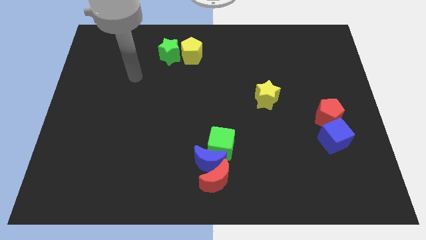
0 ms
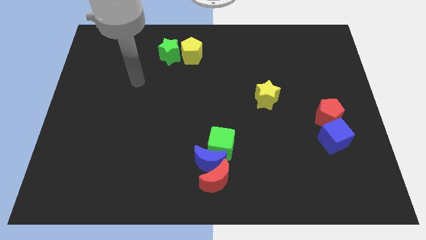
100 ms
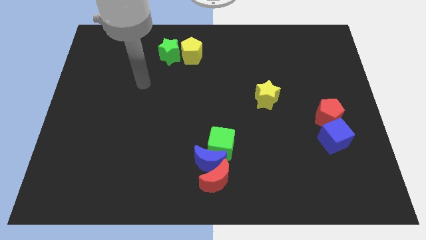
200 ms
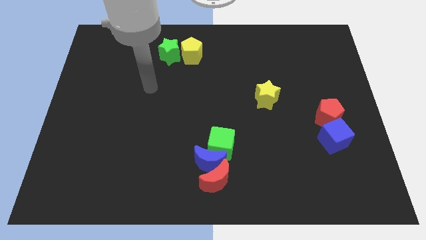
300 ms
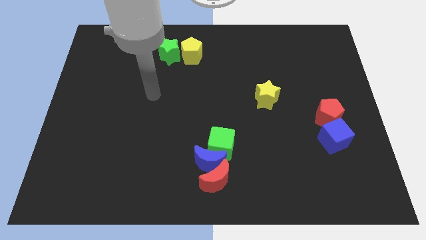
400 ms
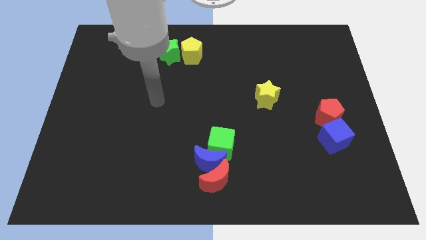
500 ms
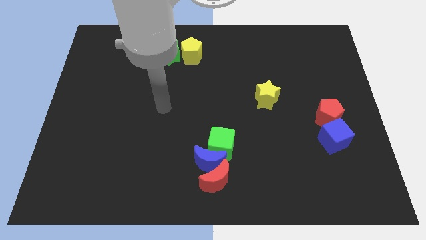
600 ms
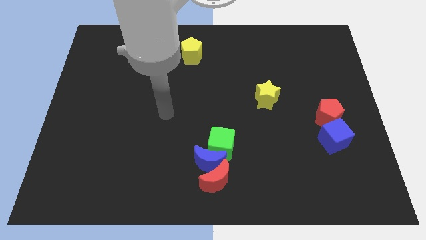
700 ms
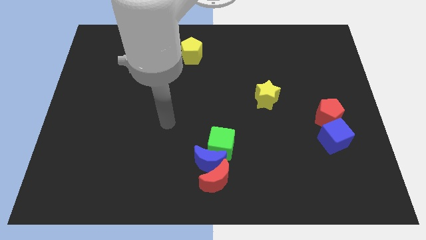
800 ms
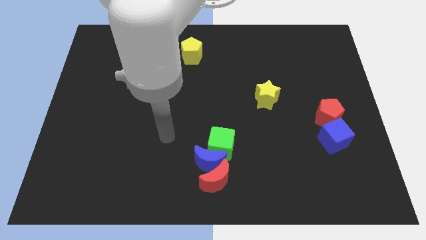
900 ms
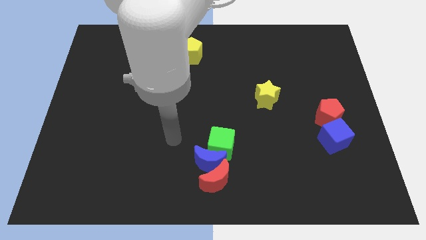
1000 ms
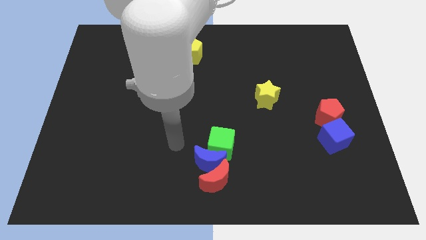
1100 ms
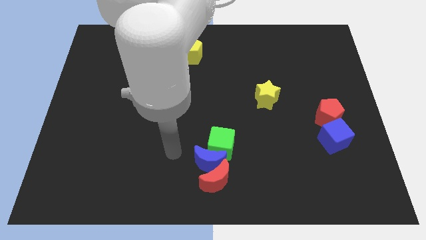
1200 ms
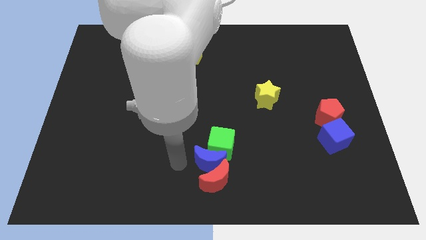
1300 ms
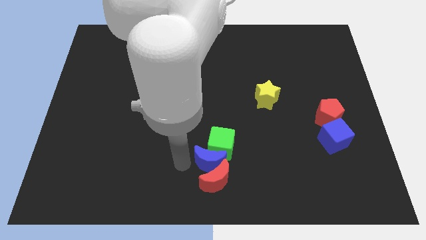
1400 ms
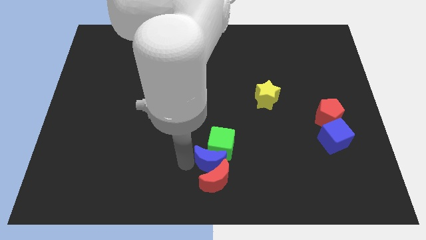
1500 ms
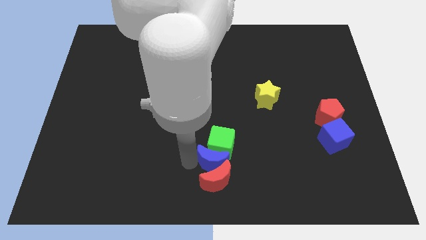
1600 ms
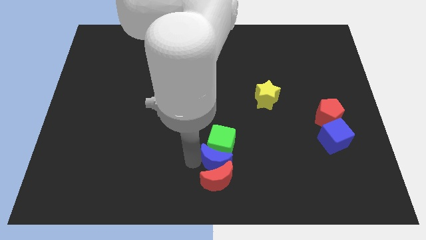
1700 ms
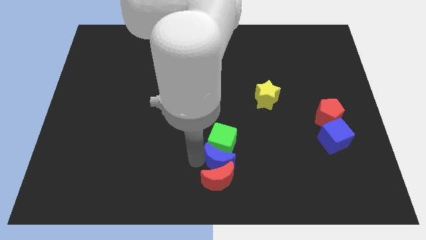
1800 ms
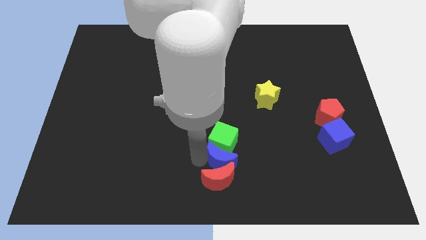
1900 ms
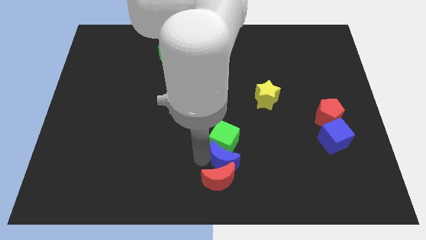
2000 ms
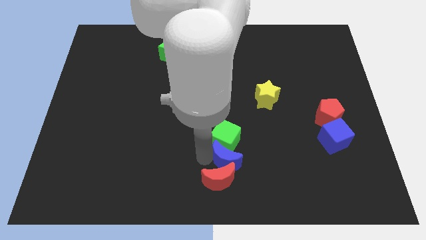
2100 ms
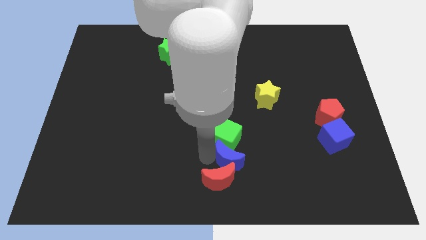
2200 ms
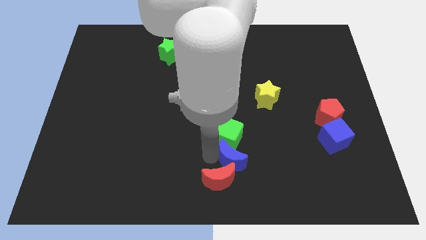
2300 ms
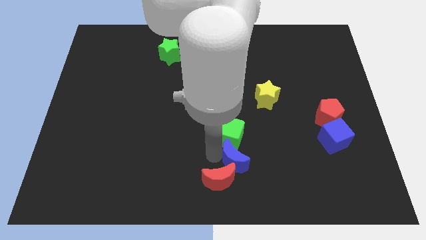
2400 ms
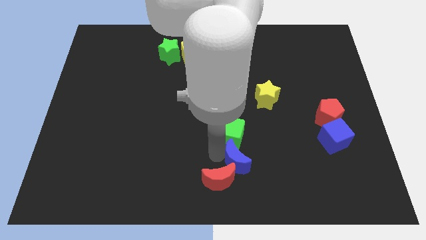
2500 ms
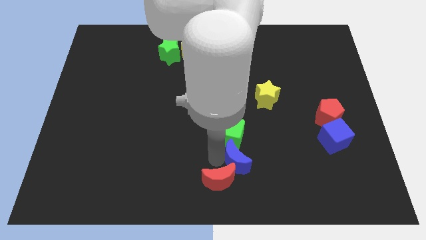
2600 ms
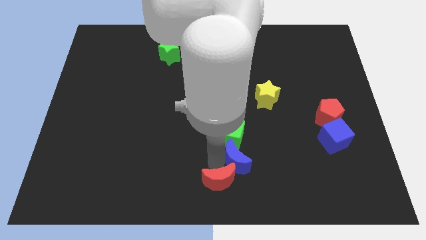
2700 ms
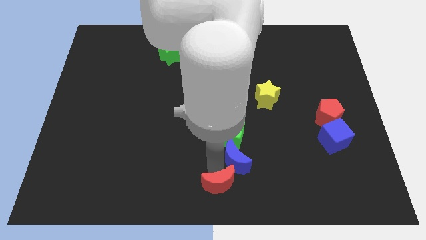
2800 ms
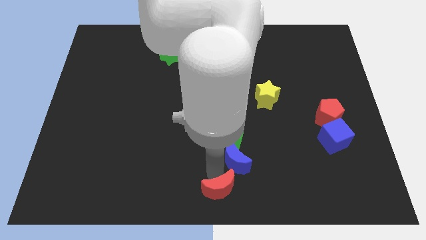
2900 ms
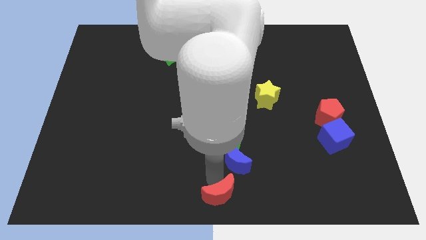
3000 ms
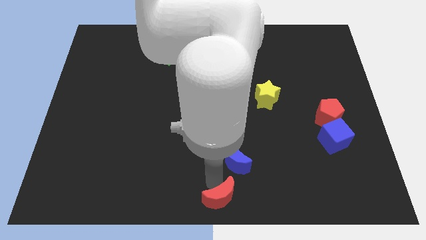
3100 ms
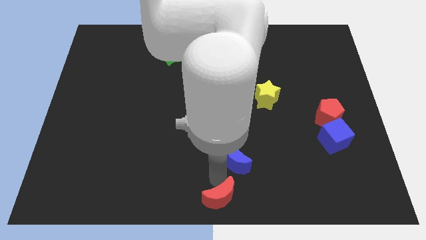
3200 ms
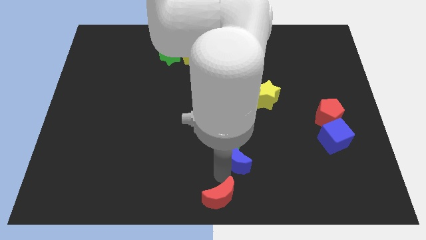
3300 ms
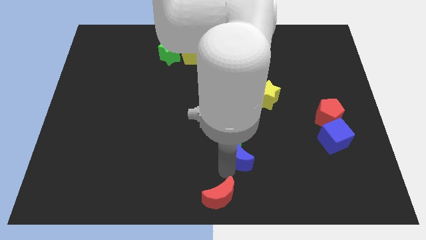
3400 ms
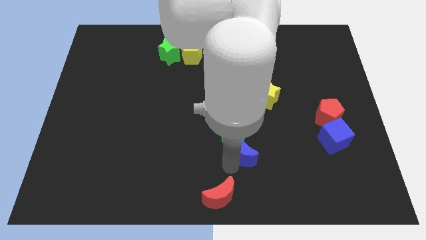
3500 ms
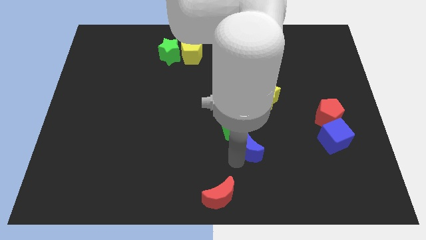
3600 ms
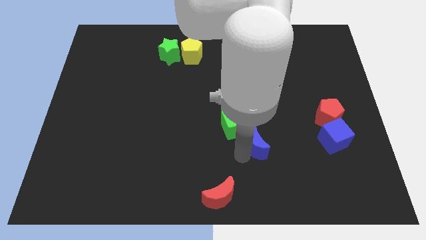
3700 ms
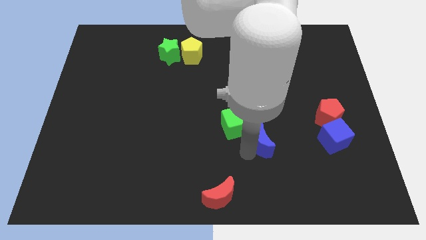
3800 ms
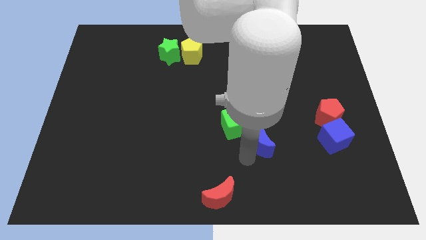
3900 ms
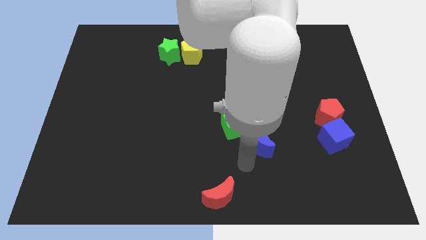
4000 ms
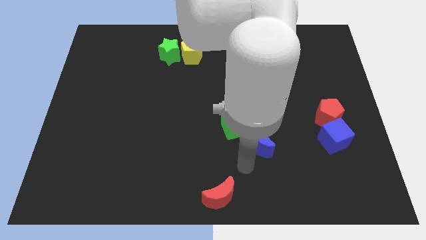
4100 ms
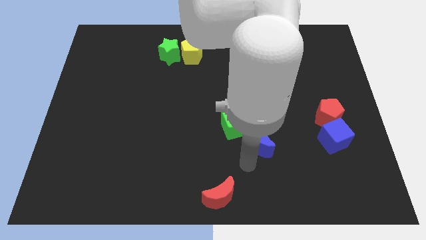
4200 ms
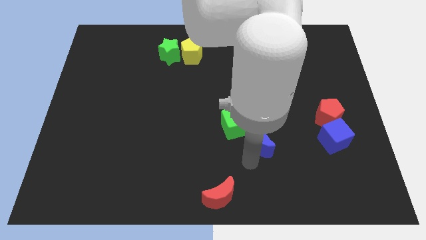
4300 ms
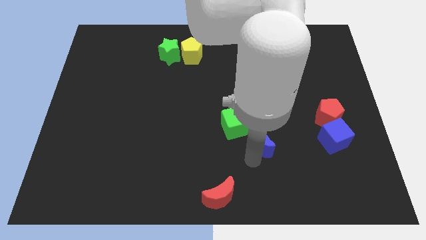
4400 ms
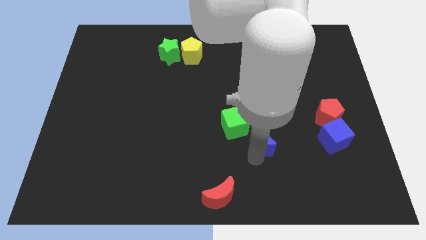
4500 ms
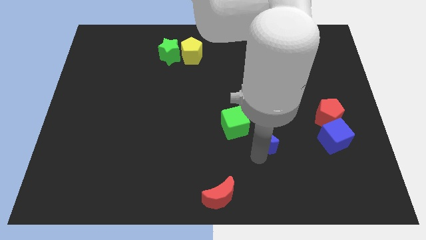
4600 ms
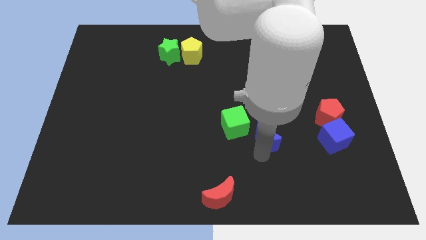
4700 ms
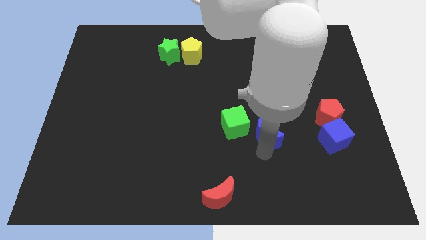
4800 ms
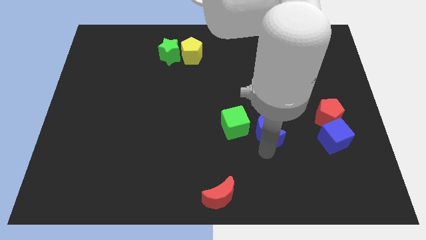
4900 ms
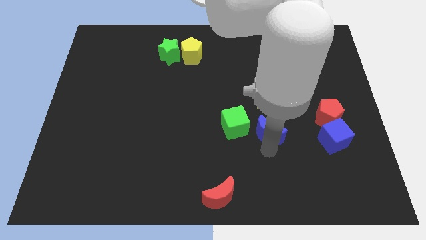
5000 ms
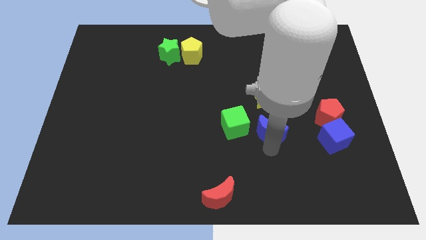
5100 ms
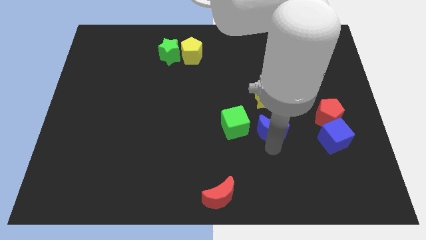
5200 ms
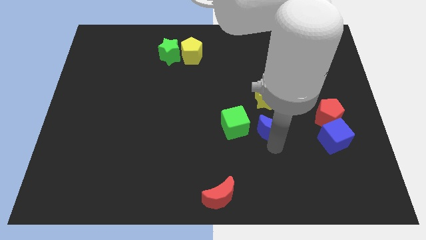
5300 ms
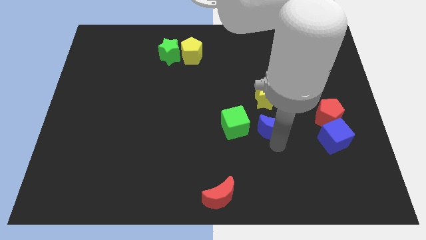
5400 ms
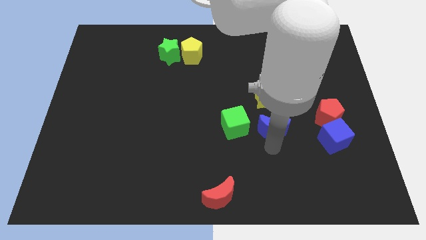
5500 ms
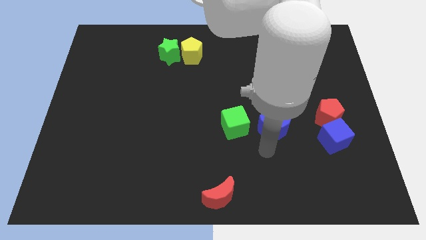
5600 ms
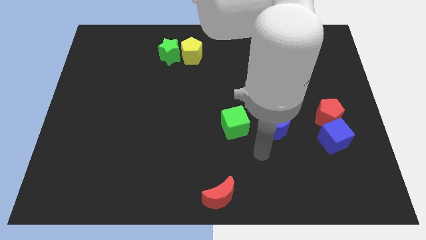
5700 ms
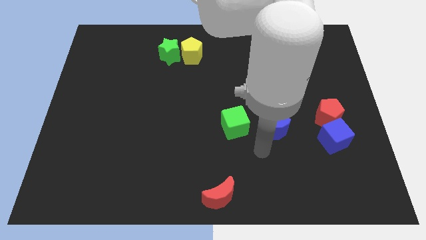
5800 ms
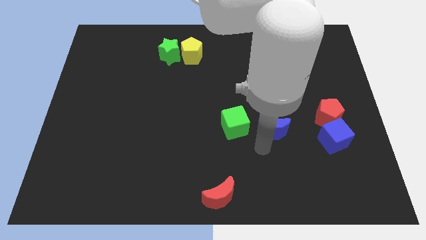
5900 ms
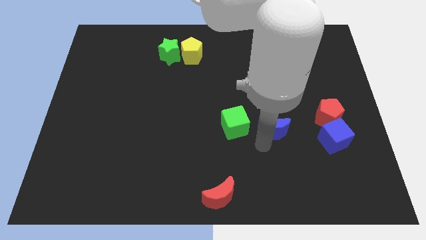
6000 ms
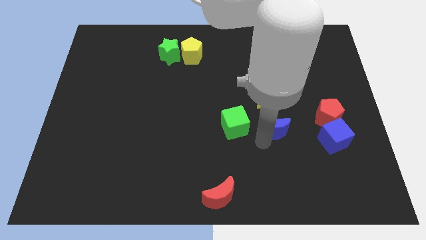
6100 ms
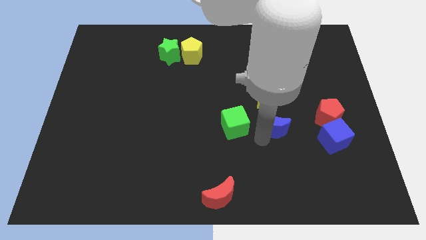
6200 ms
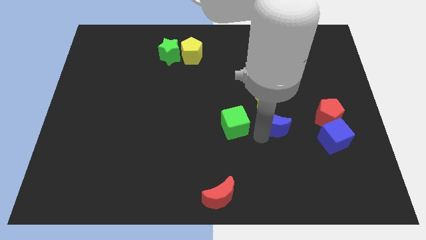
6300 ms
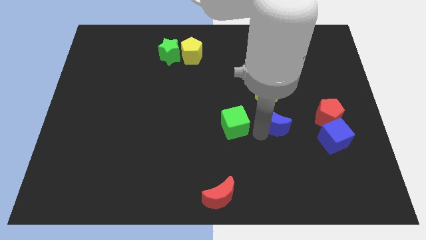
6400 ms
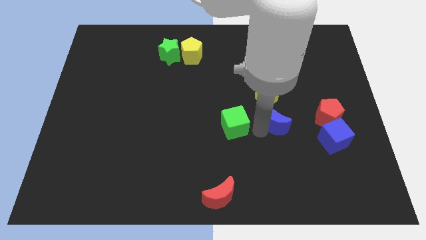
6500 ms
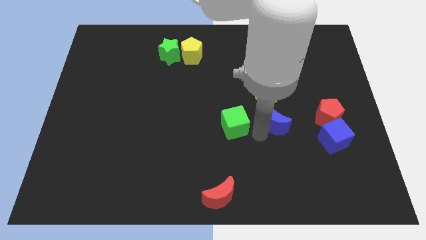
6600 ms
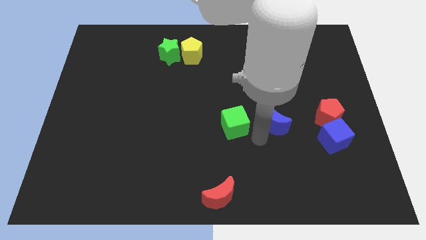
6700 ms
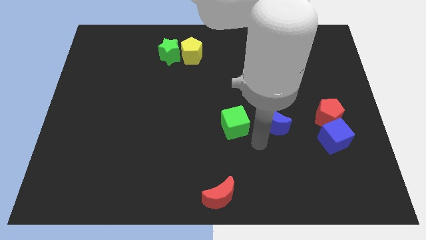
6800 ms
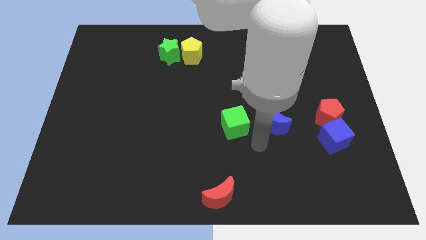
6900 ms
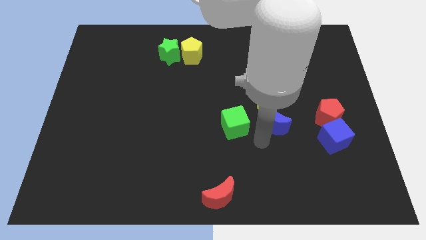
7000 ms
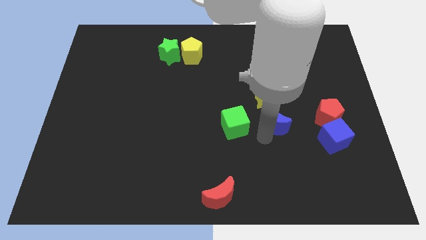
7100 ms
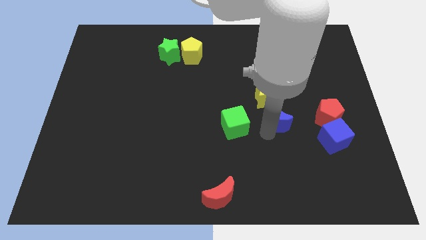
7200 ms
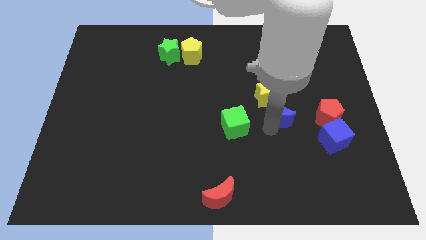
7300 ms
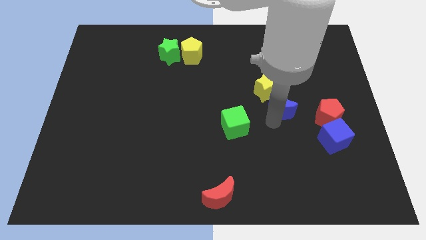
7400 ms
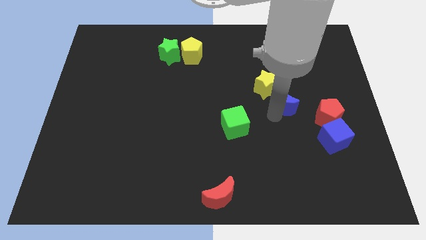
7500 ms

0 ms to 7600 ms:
put the blue moon diagonally up and to the left of the red pentagon
